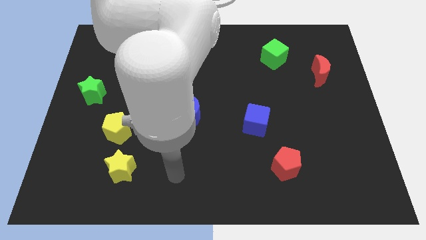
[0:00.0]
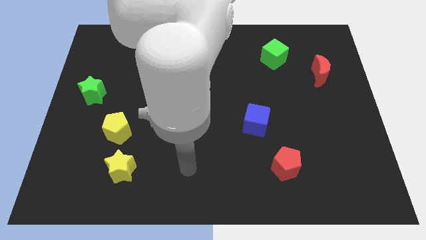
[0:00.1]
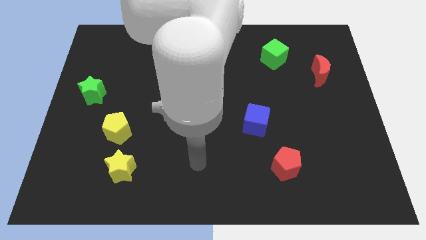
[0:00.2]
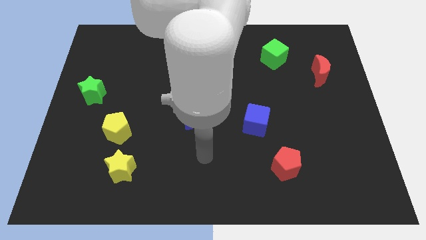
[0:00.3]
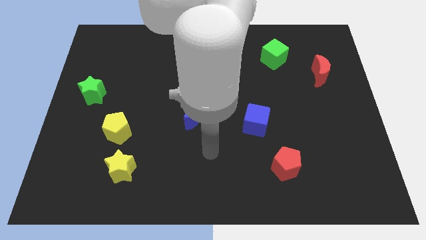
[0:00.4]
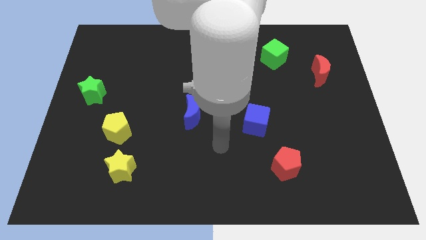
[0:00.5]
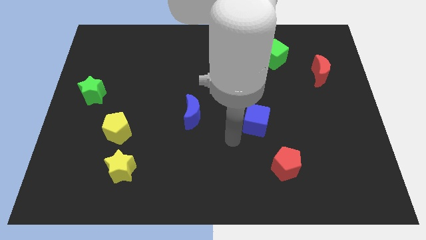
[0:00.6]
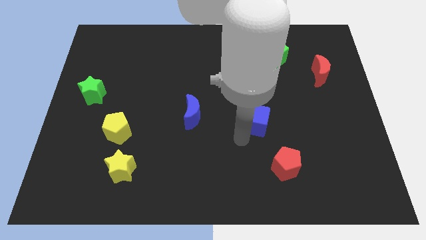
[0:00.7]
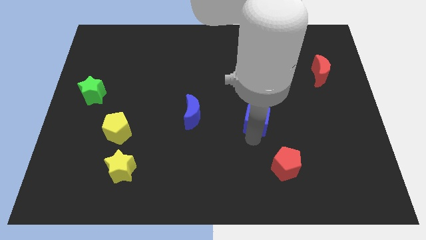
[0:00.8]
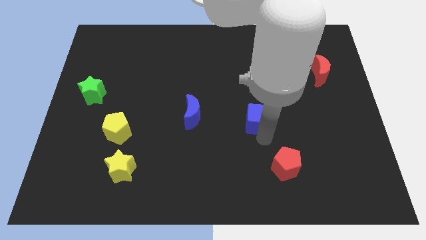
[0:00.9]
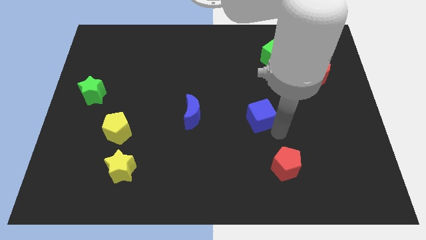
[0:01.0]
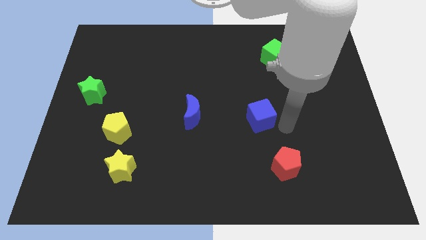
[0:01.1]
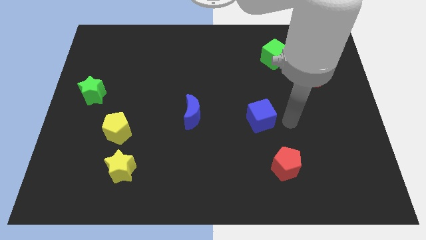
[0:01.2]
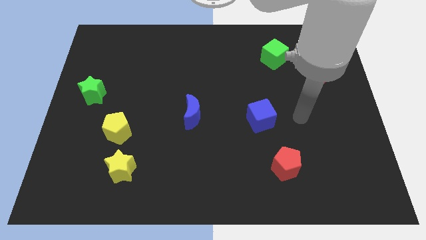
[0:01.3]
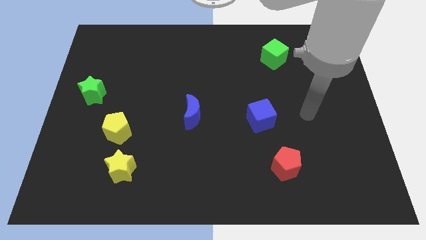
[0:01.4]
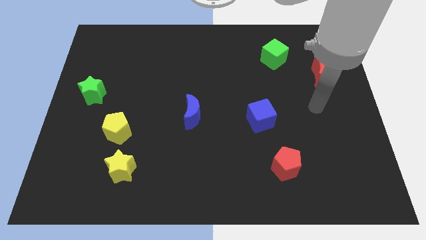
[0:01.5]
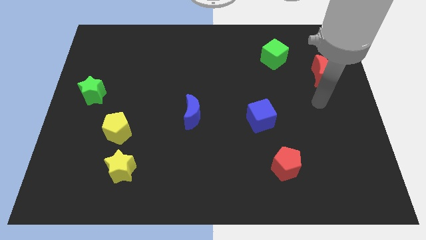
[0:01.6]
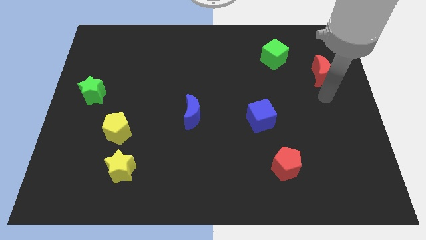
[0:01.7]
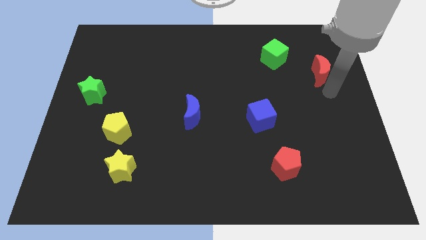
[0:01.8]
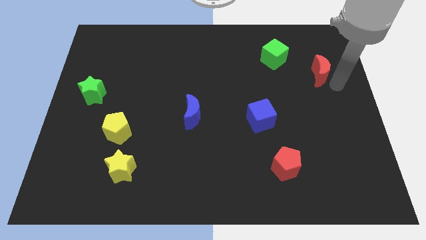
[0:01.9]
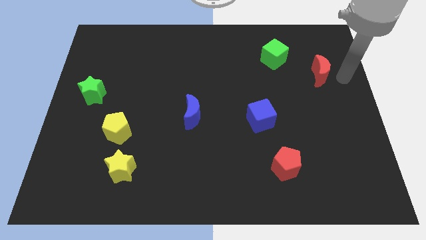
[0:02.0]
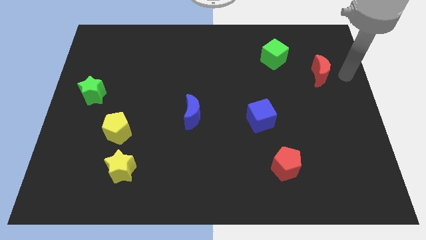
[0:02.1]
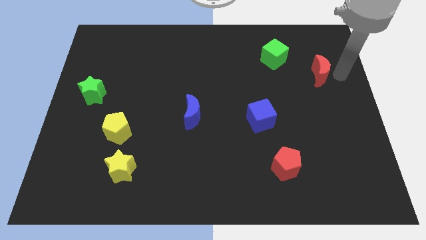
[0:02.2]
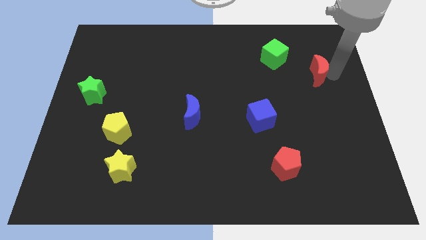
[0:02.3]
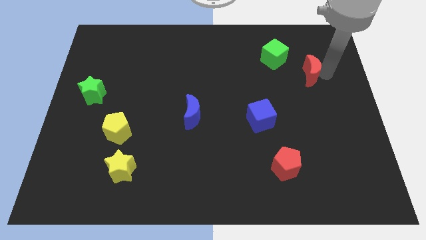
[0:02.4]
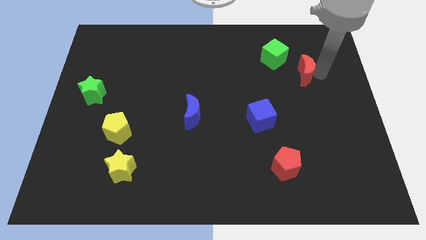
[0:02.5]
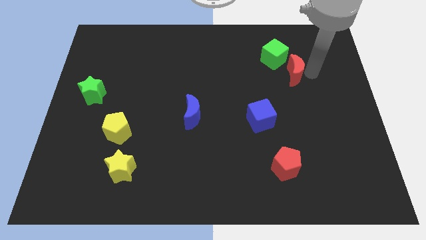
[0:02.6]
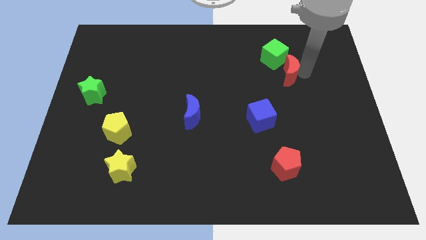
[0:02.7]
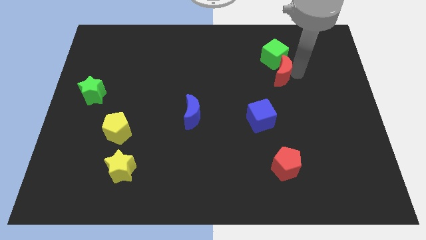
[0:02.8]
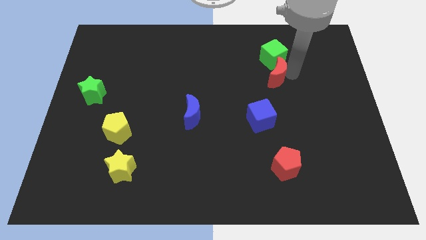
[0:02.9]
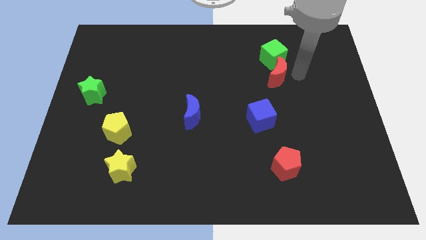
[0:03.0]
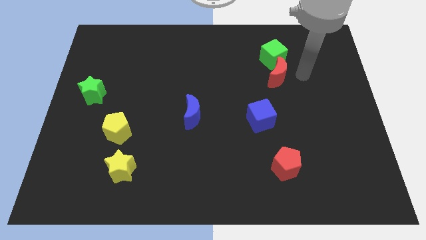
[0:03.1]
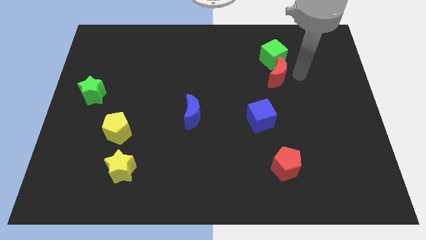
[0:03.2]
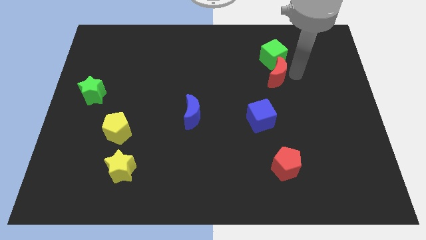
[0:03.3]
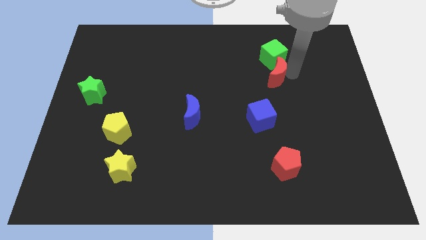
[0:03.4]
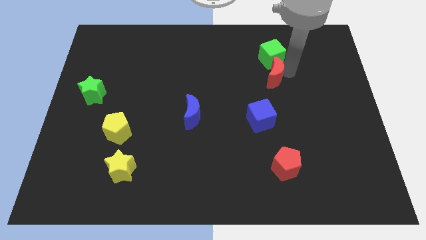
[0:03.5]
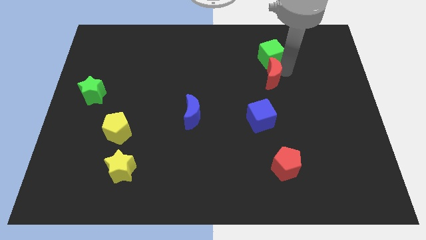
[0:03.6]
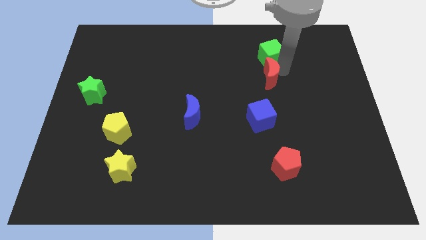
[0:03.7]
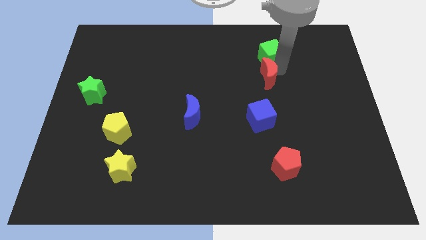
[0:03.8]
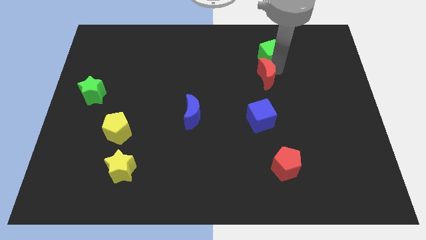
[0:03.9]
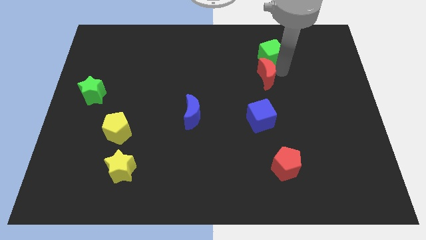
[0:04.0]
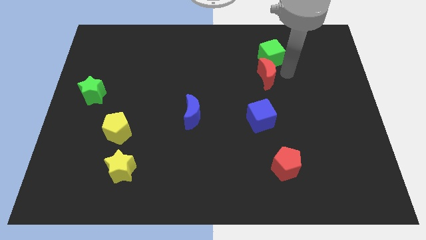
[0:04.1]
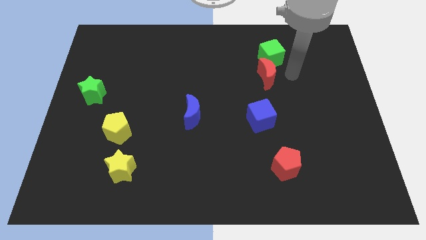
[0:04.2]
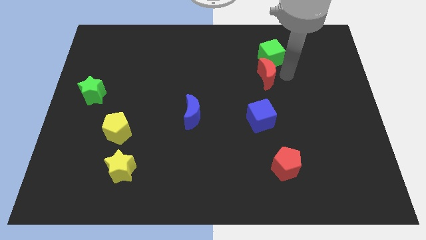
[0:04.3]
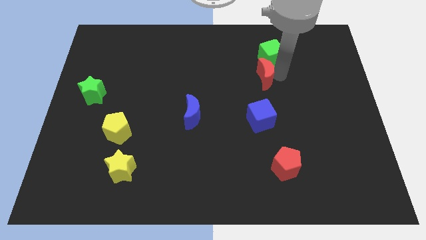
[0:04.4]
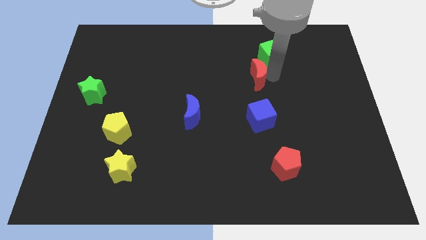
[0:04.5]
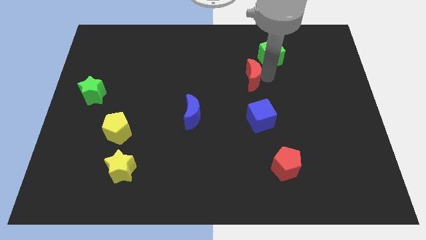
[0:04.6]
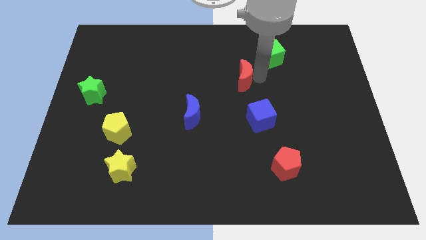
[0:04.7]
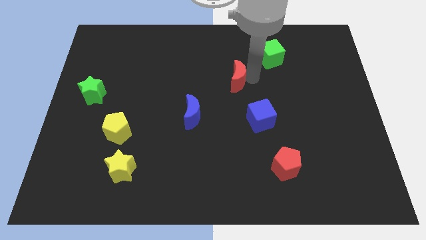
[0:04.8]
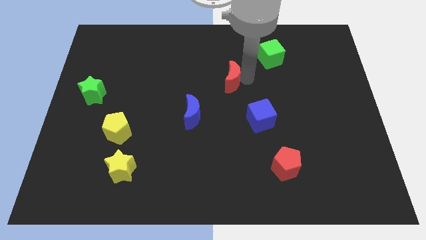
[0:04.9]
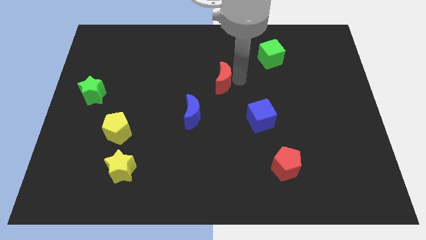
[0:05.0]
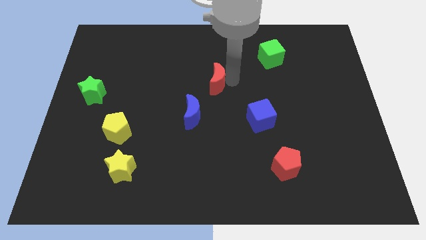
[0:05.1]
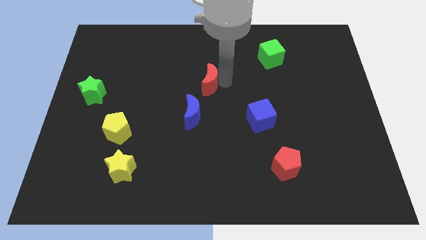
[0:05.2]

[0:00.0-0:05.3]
push the red moon above the blue moon

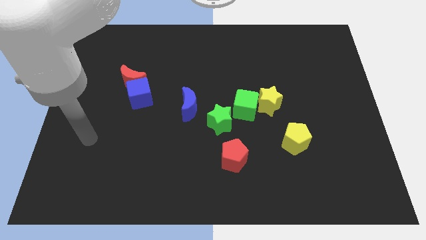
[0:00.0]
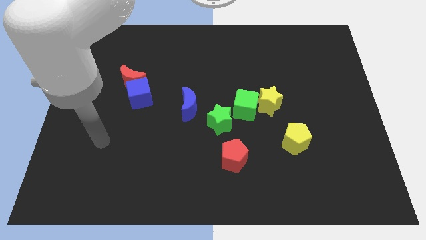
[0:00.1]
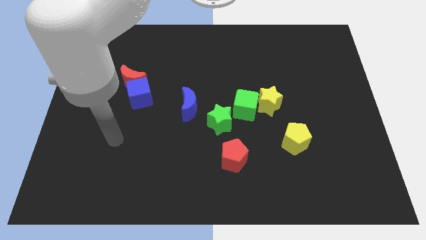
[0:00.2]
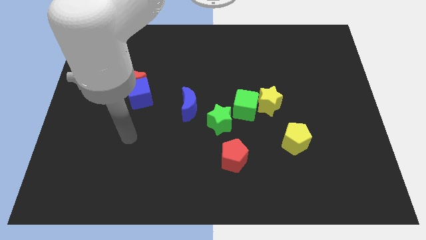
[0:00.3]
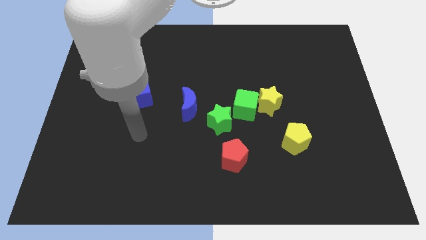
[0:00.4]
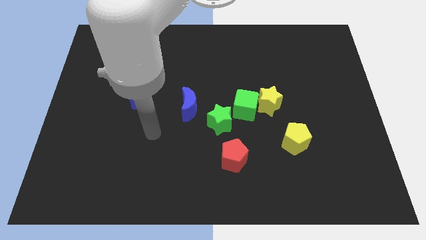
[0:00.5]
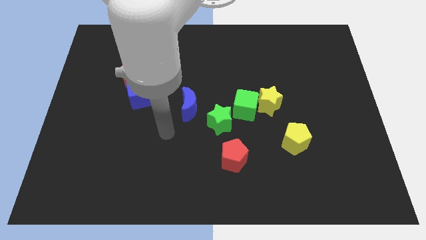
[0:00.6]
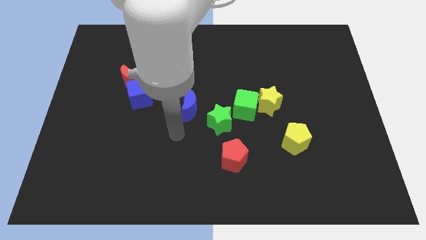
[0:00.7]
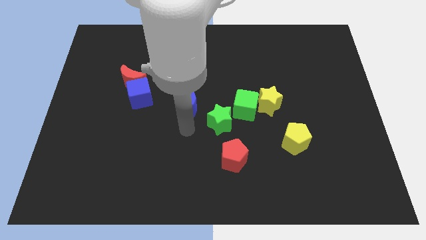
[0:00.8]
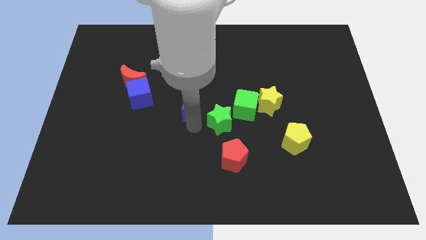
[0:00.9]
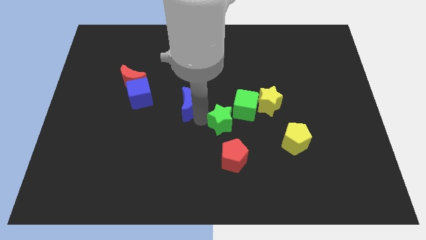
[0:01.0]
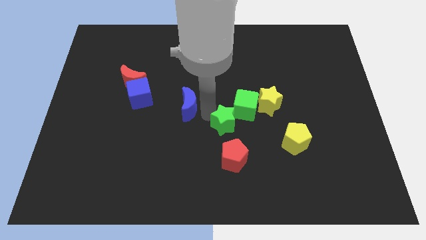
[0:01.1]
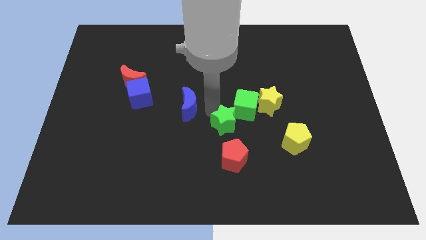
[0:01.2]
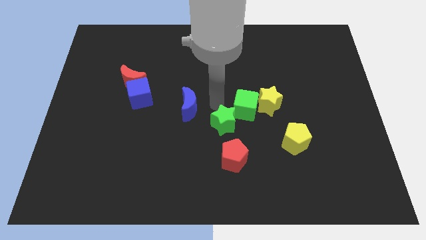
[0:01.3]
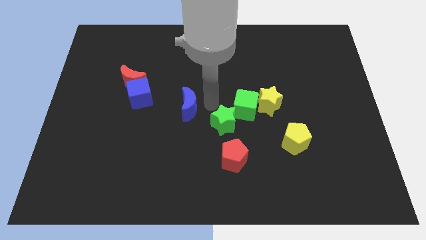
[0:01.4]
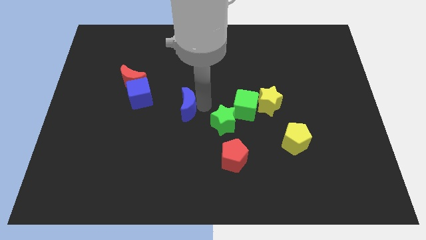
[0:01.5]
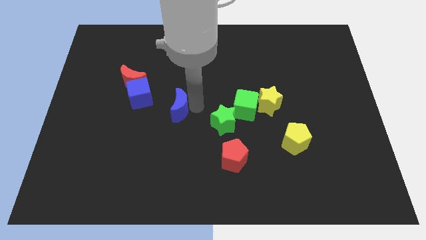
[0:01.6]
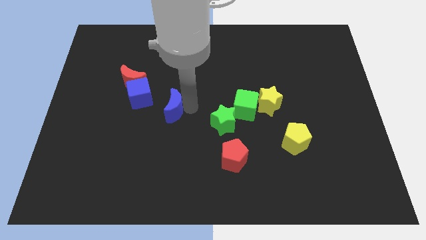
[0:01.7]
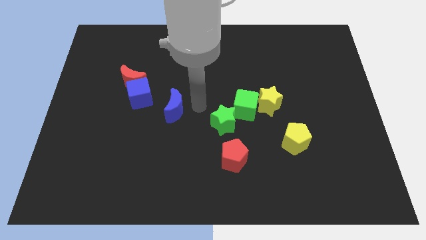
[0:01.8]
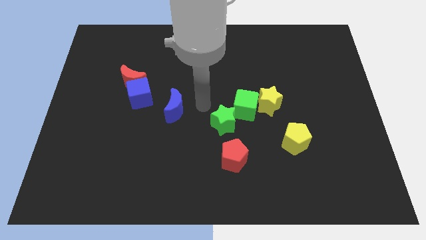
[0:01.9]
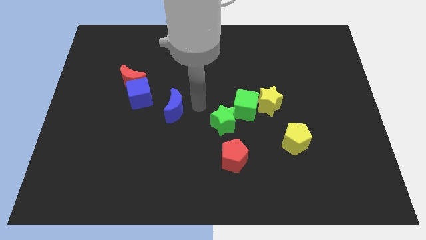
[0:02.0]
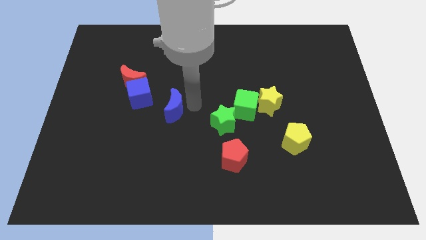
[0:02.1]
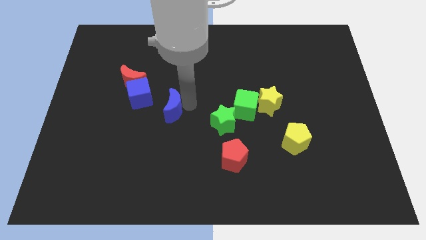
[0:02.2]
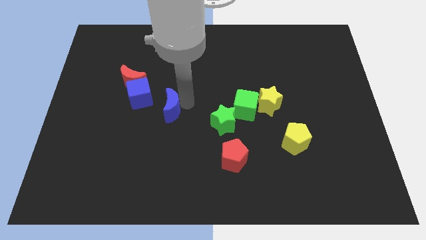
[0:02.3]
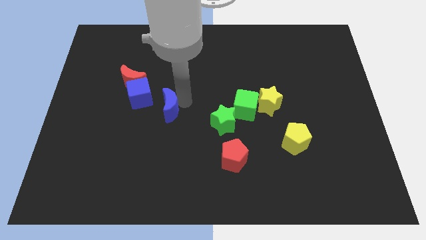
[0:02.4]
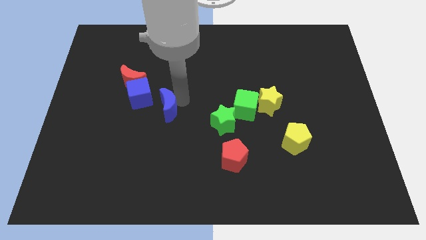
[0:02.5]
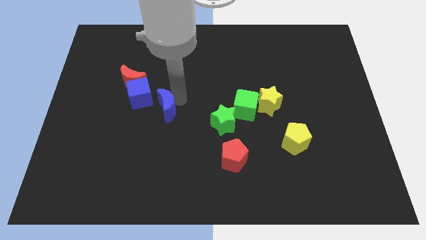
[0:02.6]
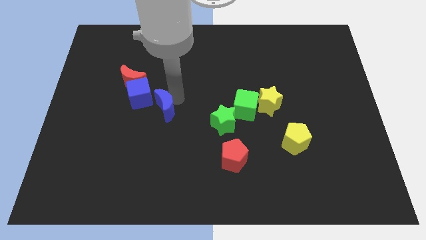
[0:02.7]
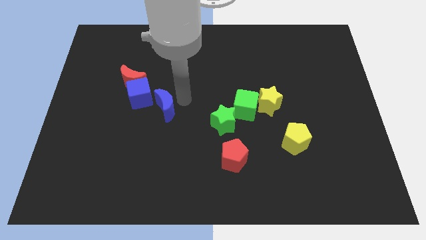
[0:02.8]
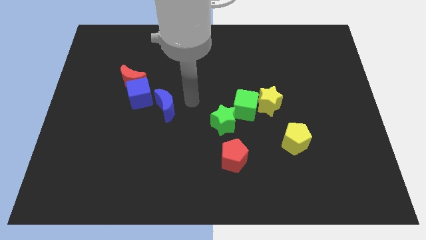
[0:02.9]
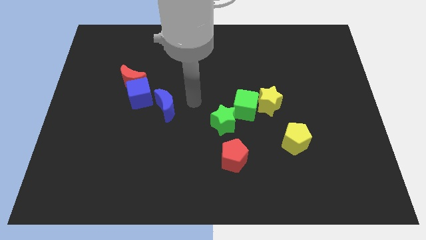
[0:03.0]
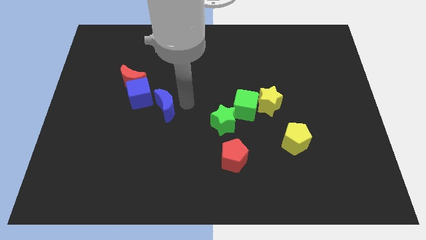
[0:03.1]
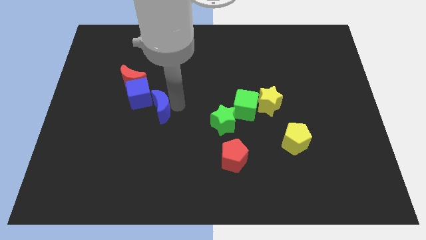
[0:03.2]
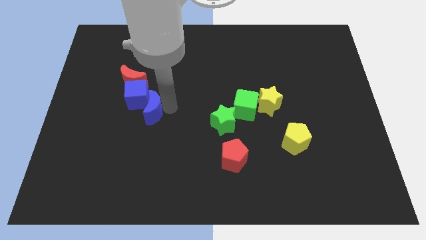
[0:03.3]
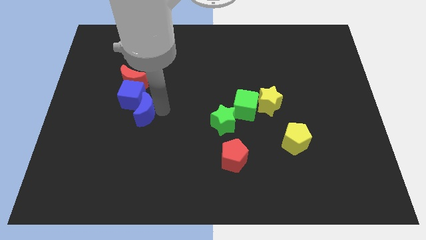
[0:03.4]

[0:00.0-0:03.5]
slide the blue moon to the bottom side of the red moon
